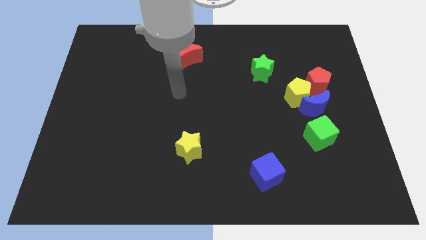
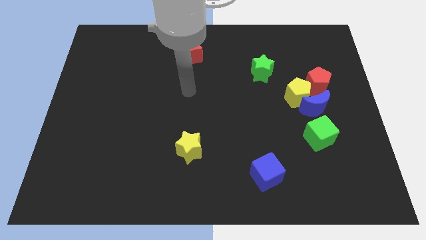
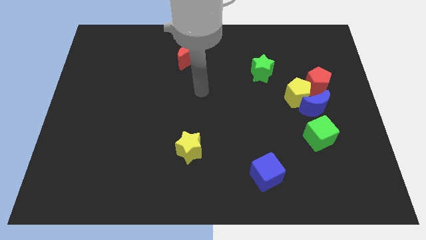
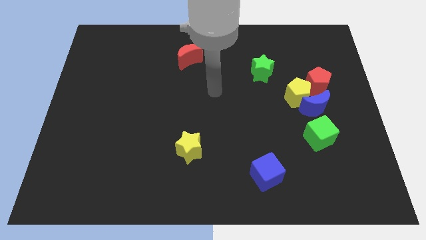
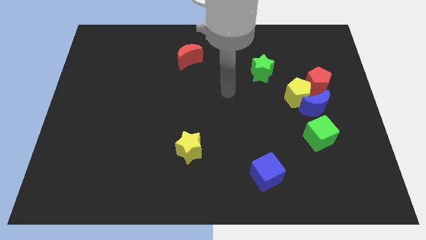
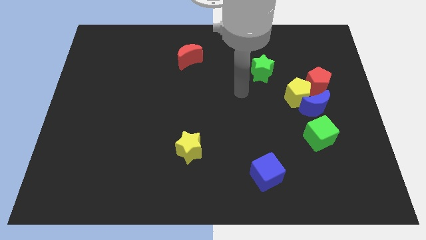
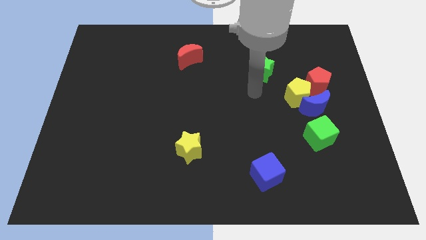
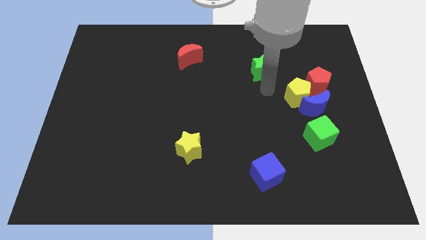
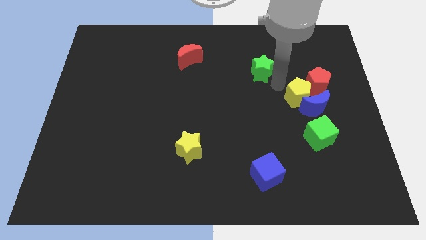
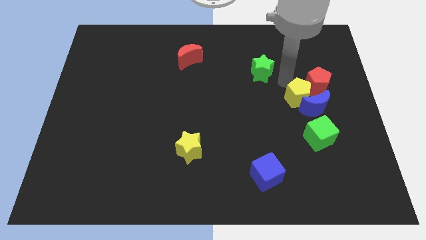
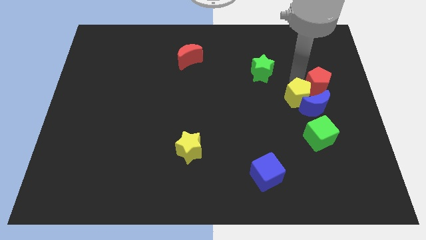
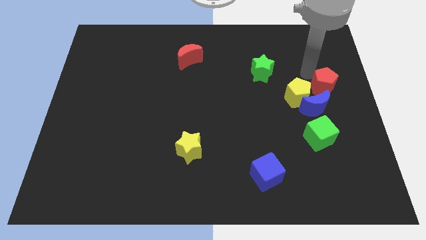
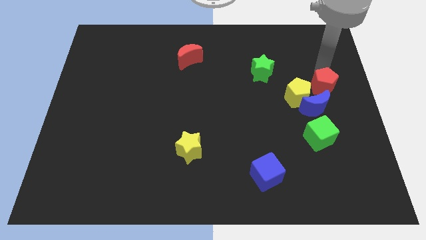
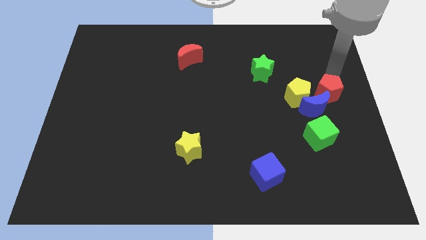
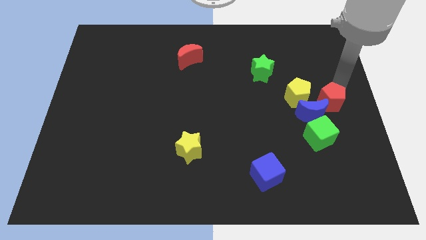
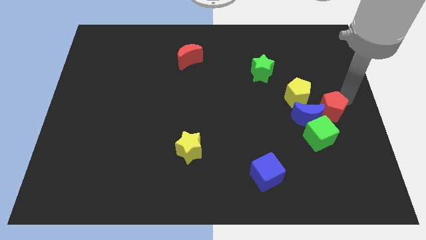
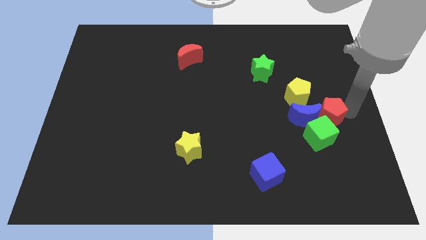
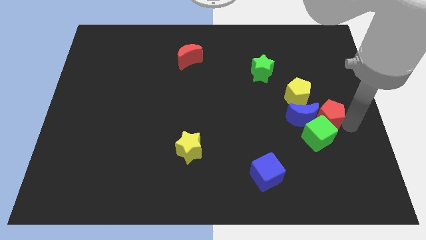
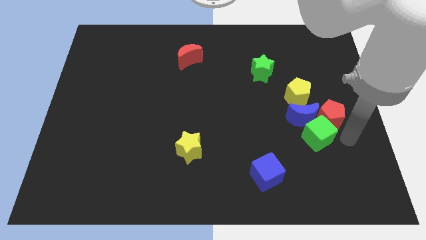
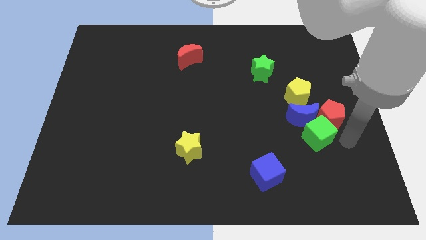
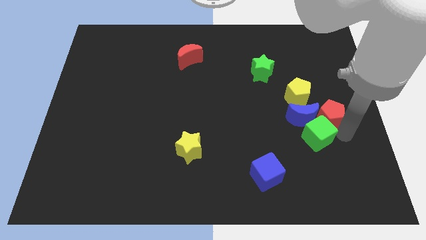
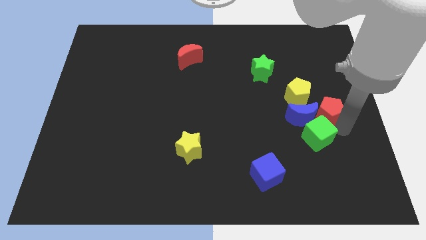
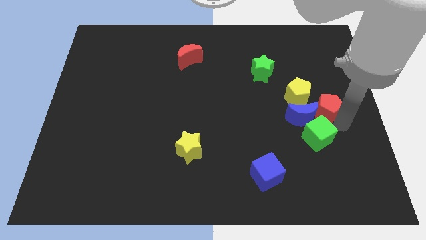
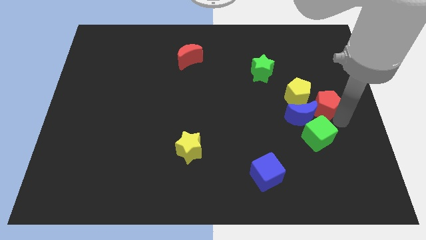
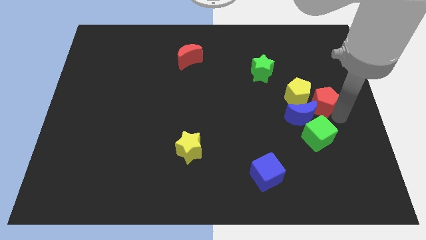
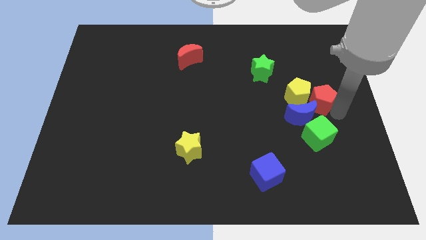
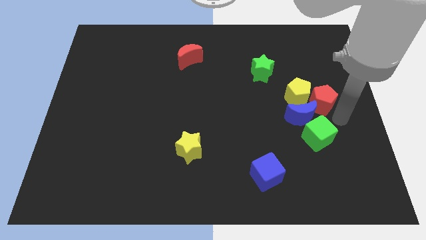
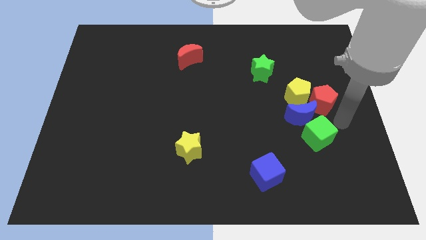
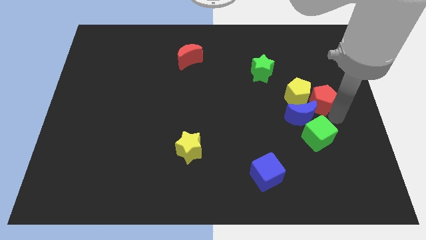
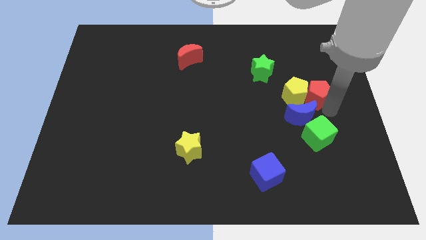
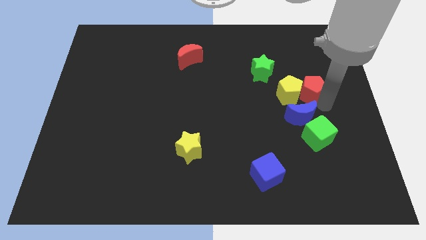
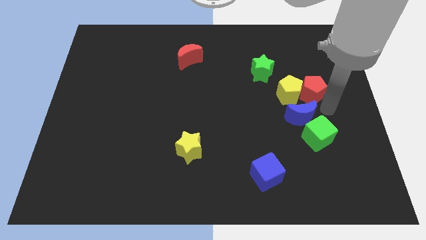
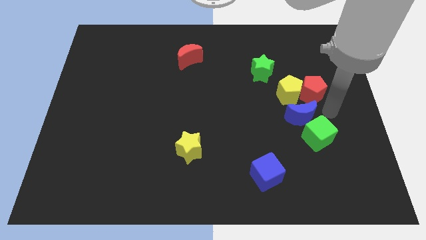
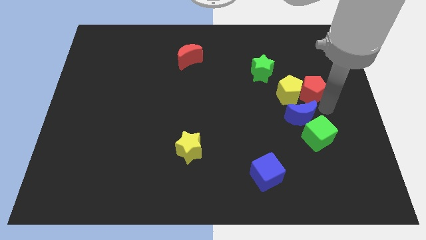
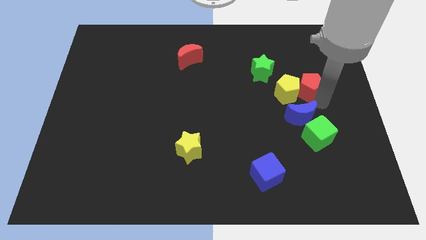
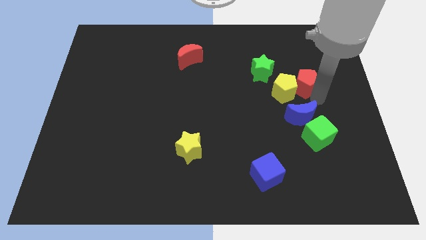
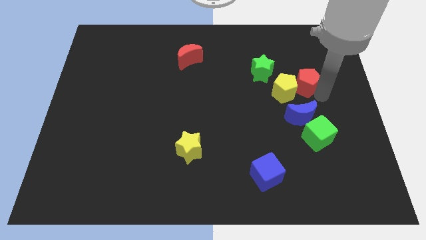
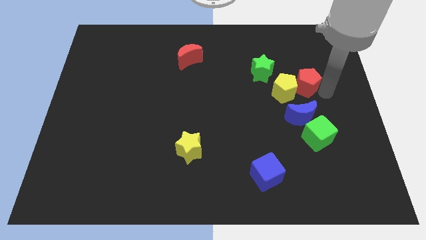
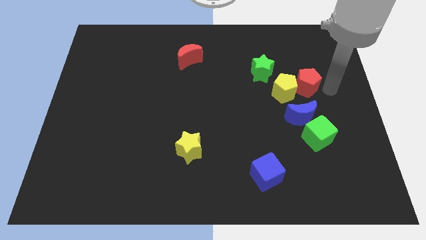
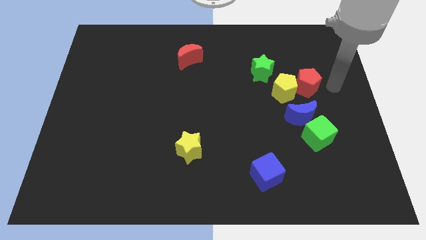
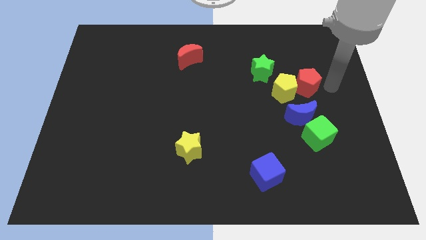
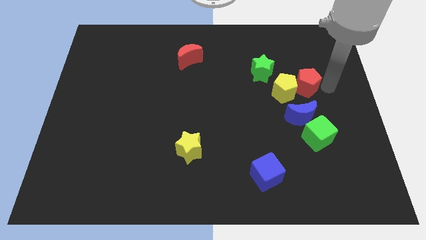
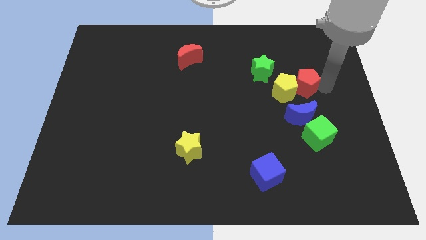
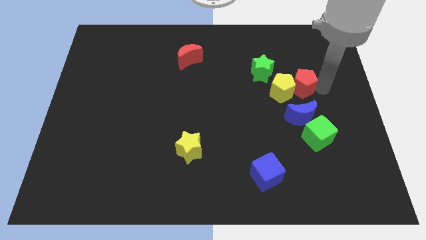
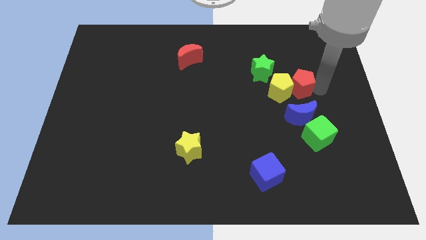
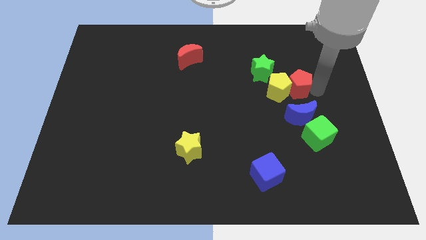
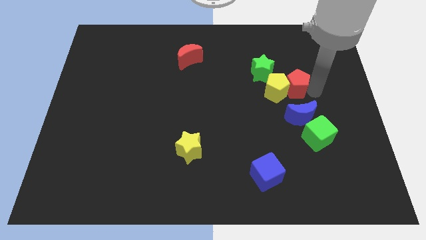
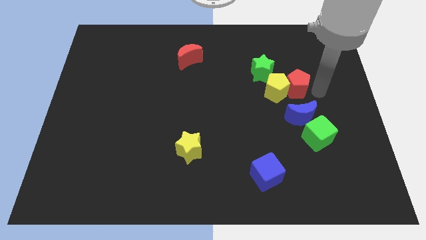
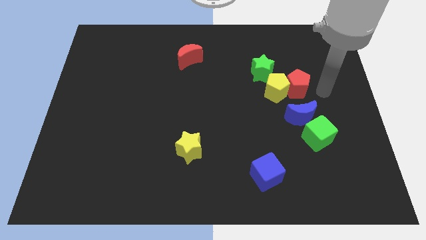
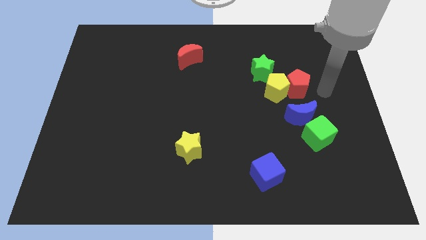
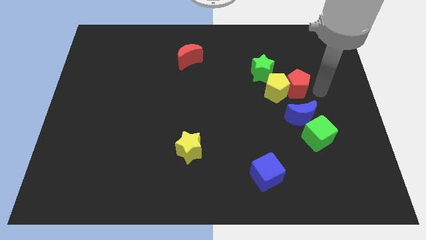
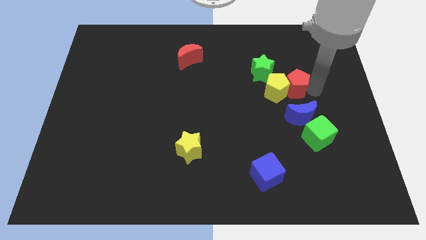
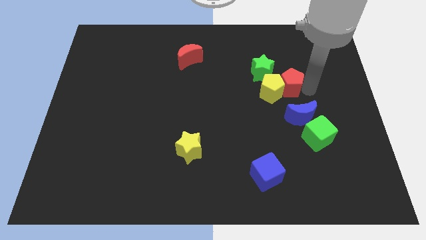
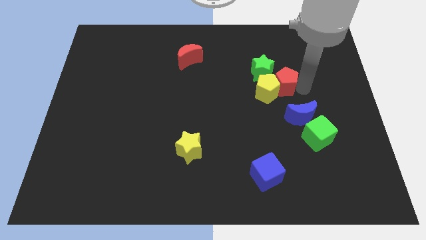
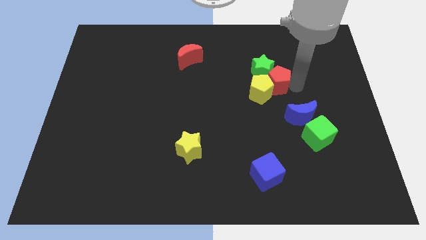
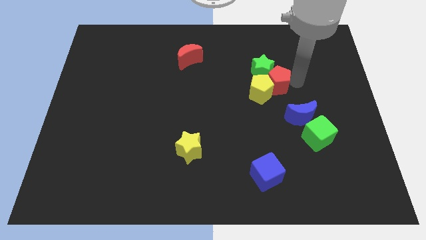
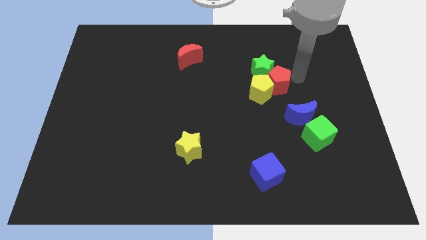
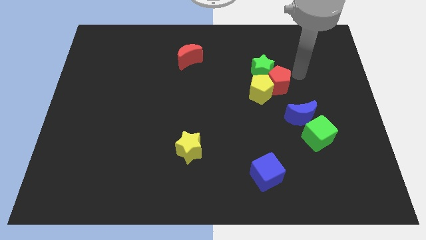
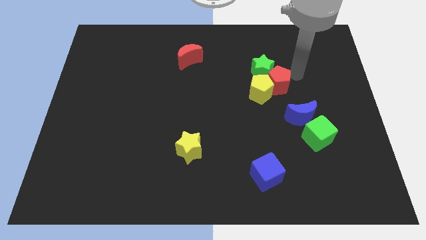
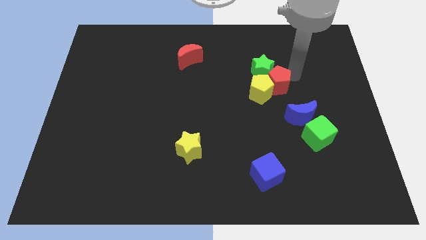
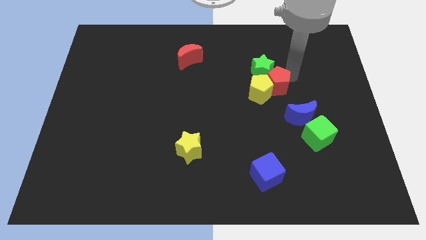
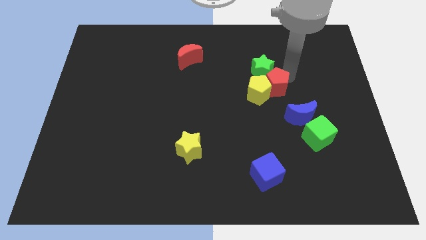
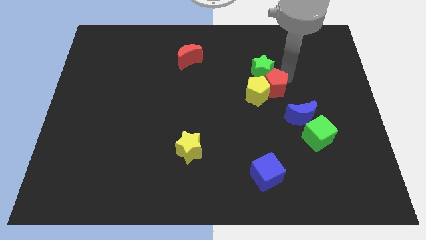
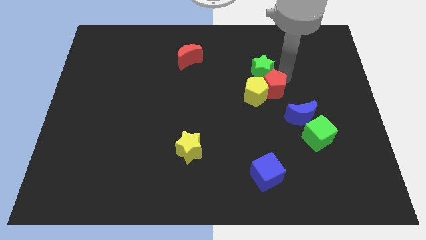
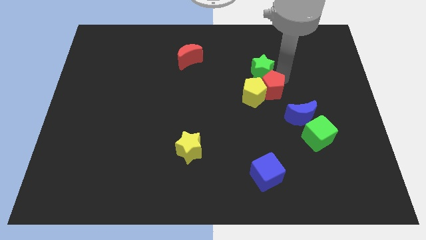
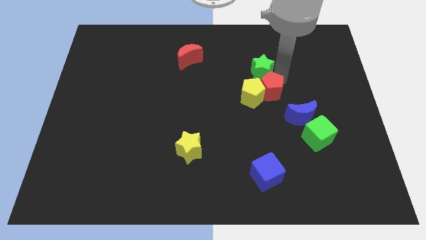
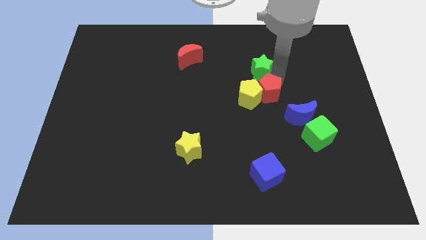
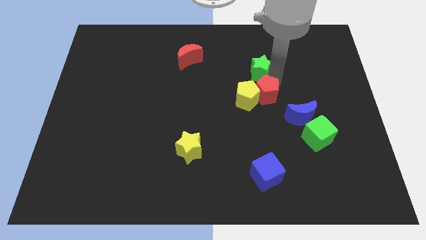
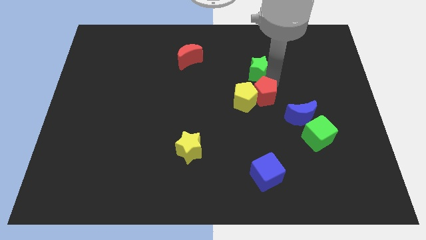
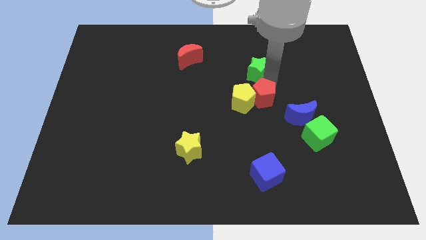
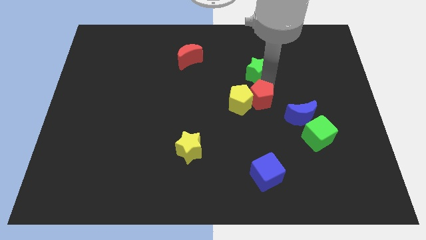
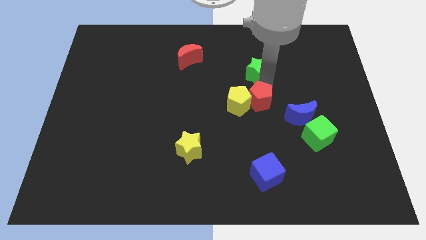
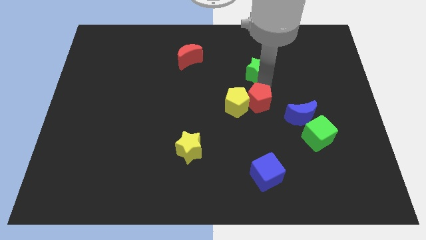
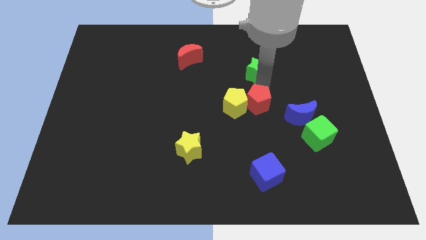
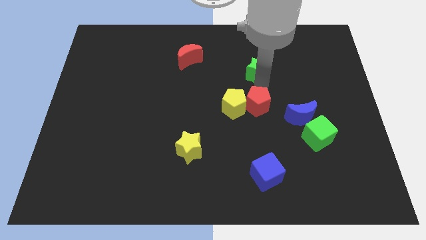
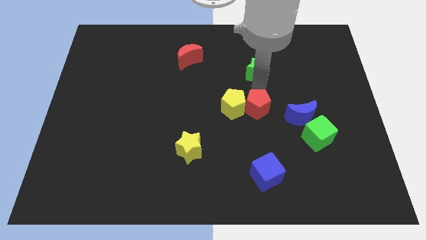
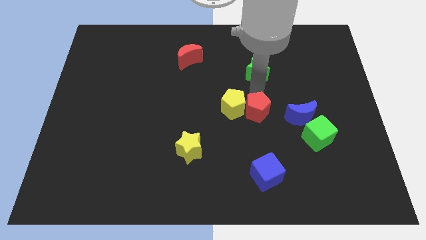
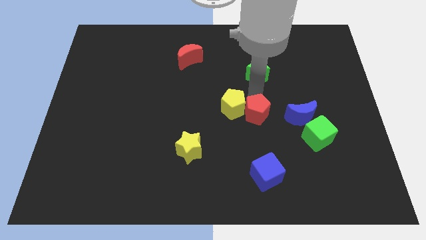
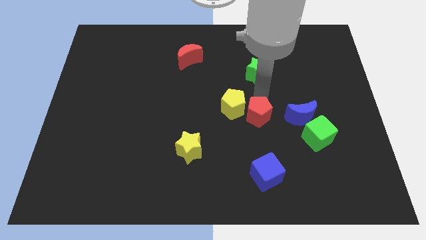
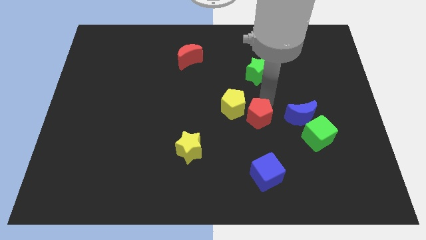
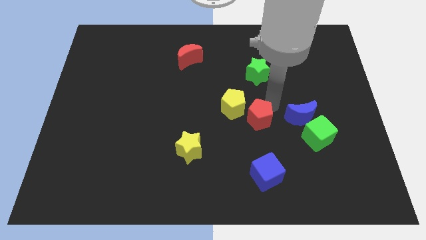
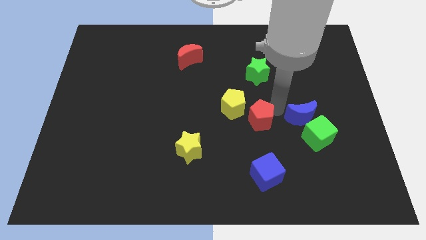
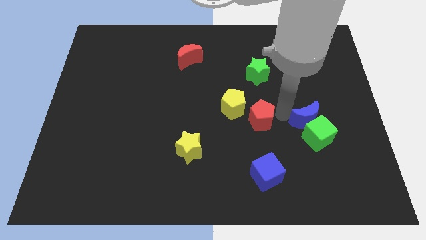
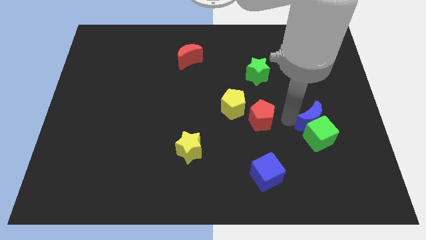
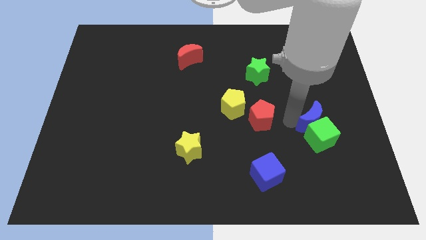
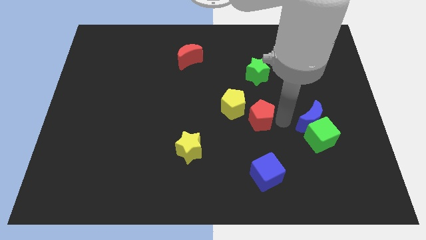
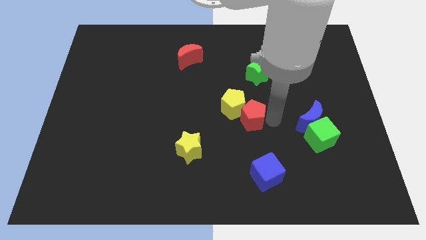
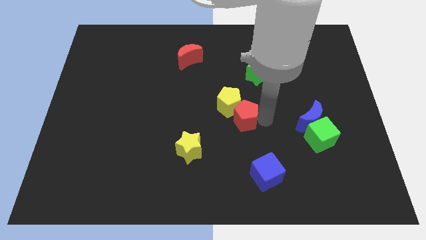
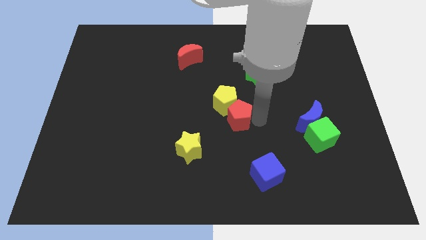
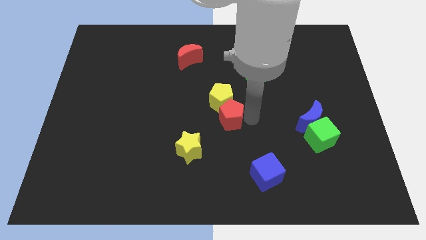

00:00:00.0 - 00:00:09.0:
push the red pentagon to the top right of the yellow star
